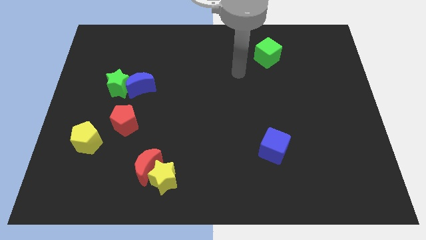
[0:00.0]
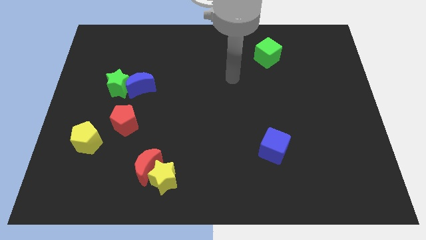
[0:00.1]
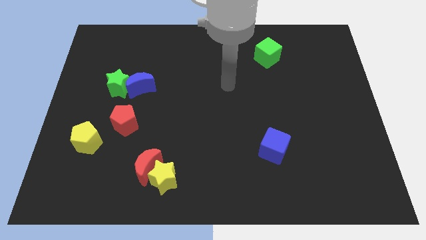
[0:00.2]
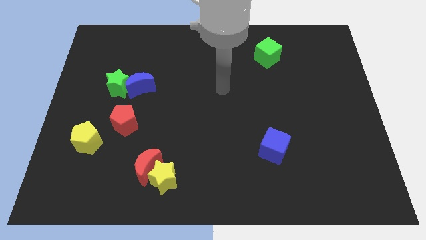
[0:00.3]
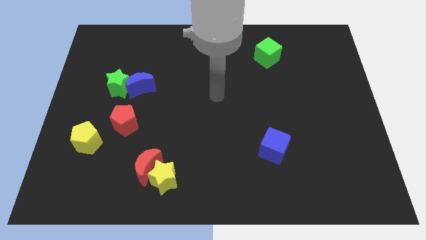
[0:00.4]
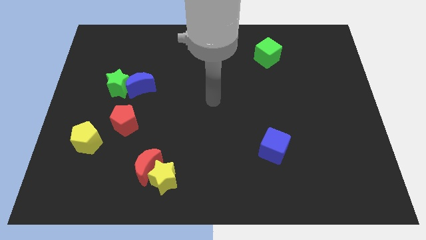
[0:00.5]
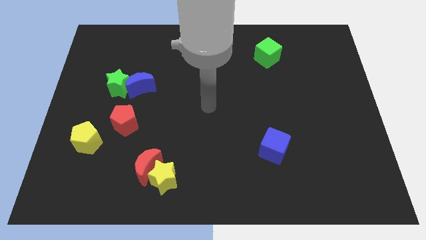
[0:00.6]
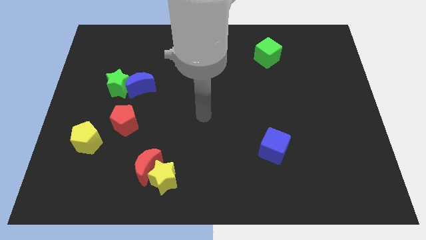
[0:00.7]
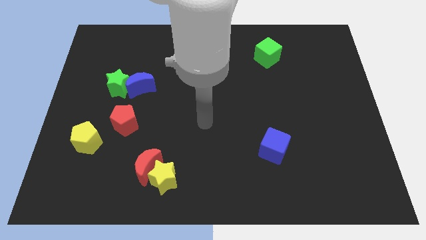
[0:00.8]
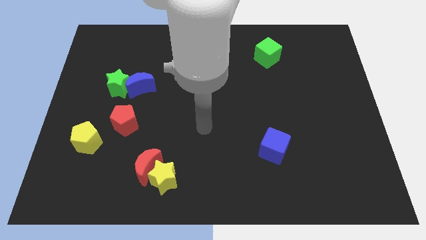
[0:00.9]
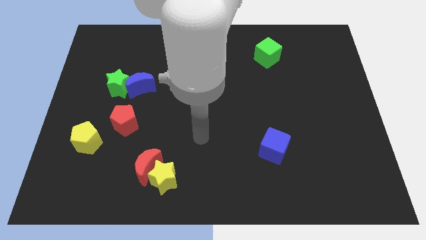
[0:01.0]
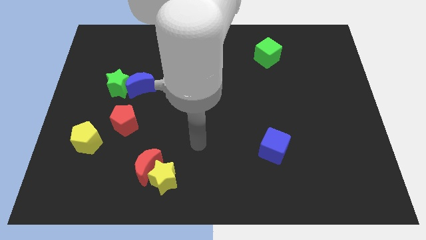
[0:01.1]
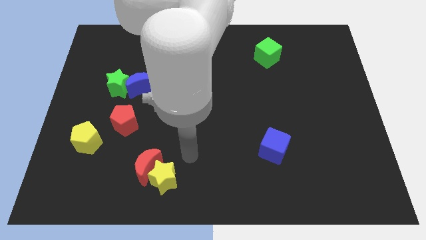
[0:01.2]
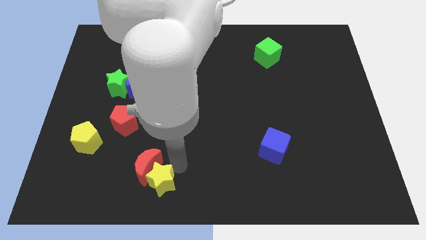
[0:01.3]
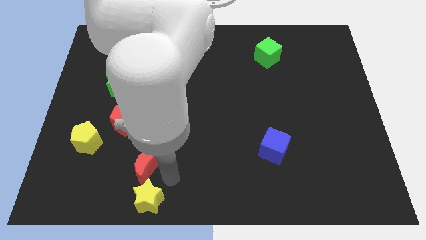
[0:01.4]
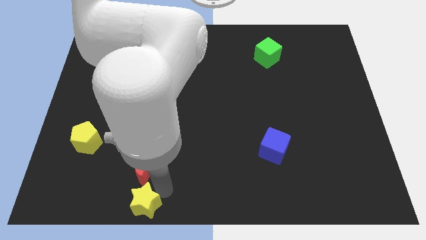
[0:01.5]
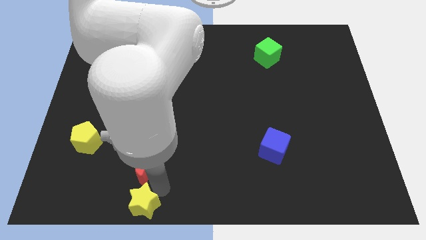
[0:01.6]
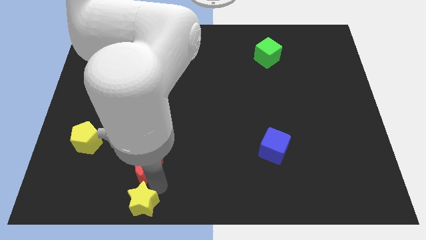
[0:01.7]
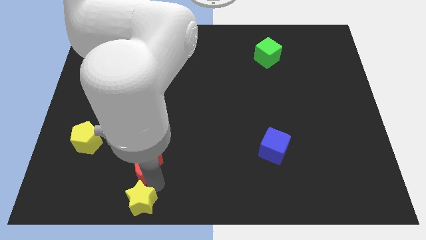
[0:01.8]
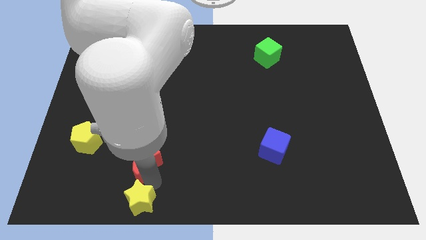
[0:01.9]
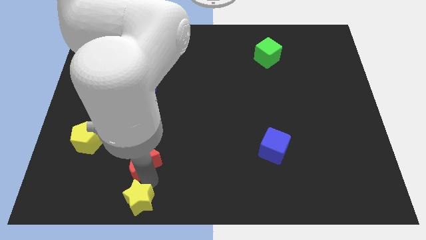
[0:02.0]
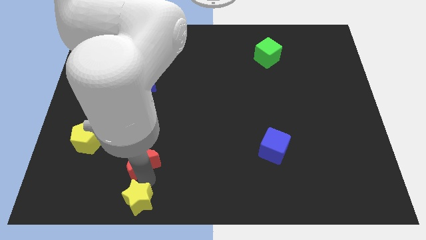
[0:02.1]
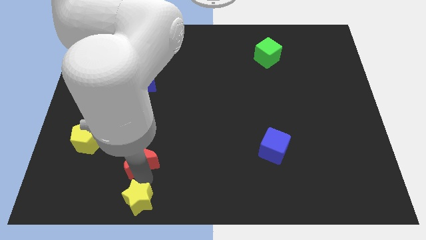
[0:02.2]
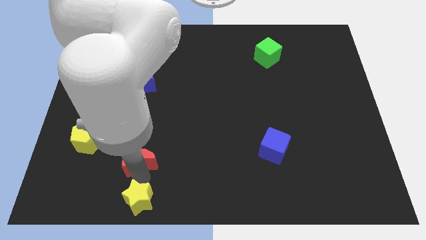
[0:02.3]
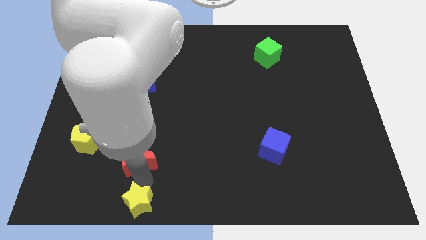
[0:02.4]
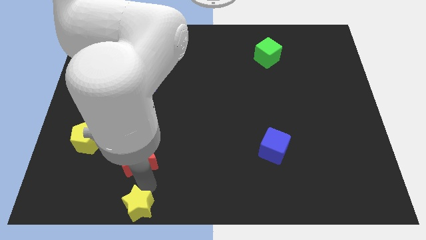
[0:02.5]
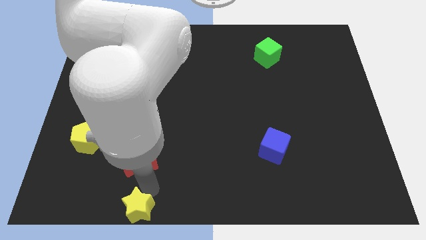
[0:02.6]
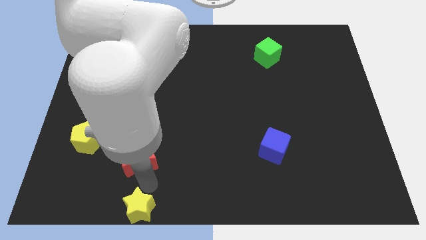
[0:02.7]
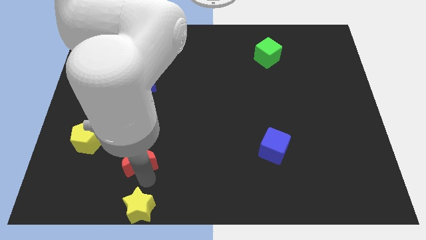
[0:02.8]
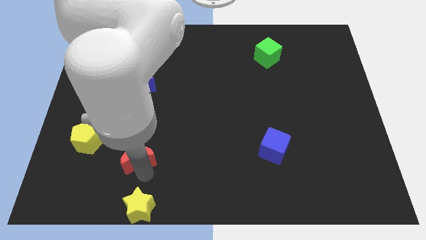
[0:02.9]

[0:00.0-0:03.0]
separate the red moon from the yellow star

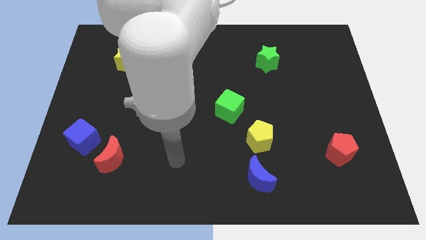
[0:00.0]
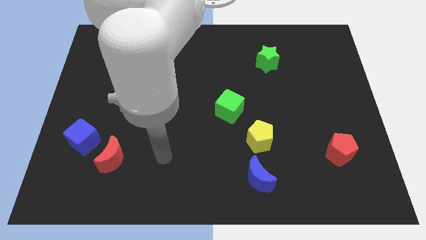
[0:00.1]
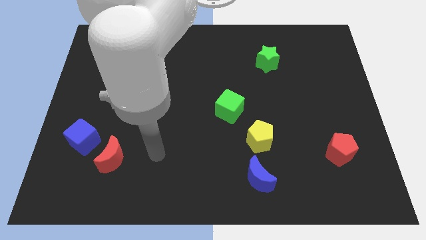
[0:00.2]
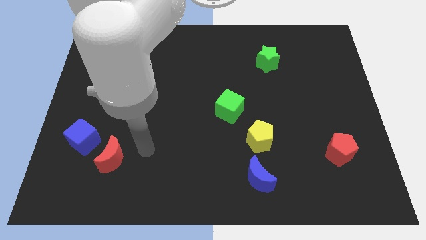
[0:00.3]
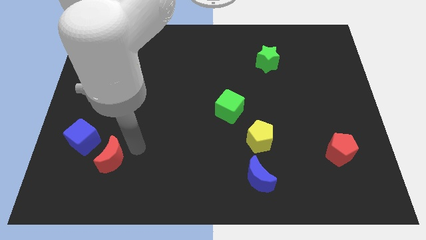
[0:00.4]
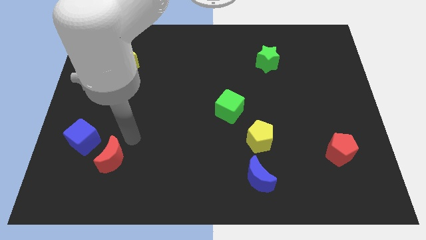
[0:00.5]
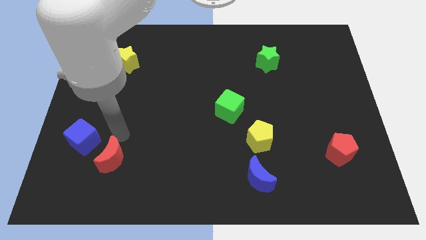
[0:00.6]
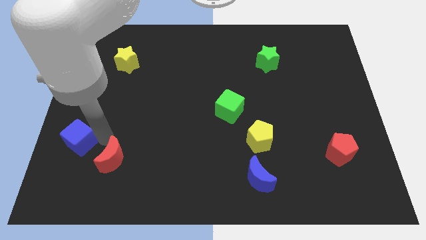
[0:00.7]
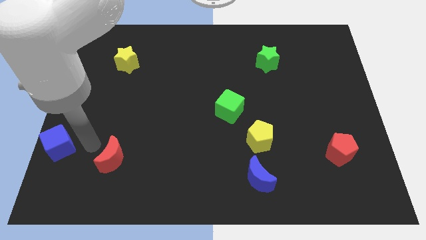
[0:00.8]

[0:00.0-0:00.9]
pull the red moon apart from the blue cube

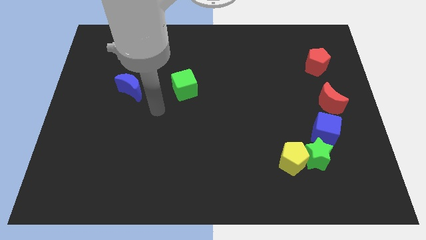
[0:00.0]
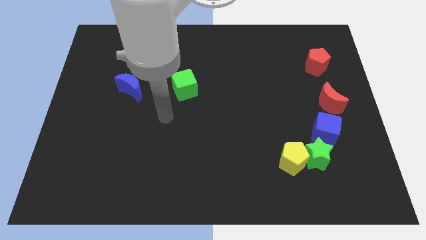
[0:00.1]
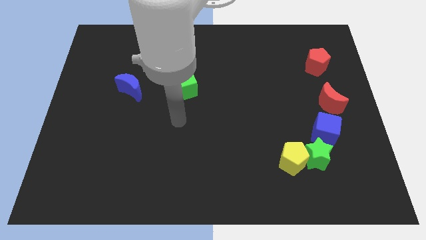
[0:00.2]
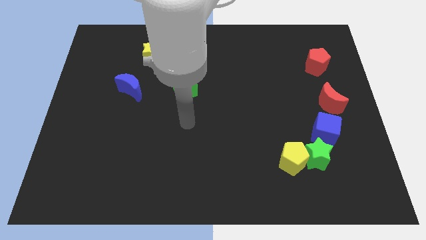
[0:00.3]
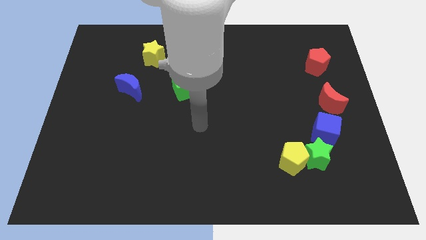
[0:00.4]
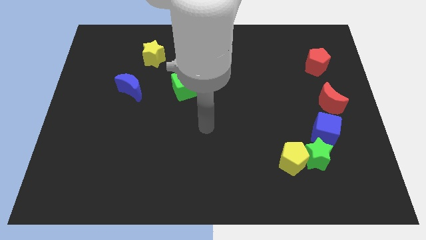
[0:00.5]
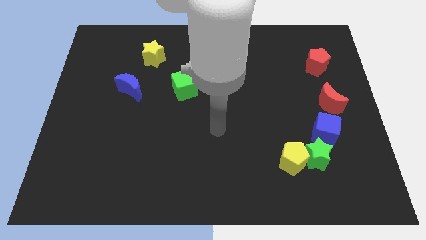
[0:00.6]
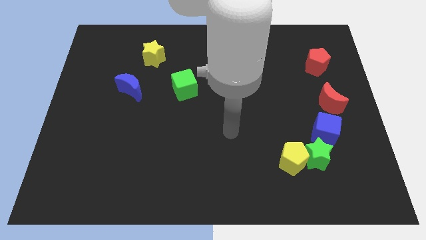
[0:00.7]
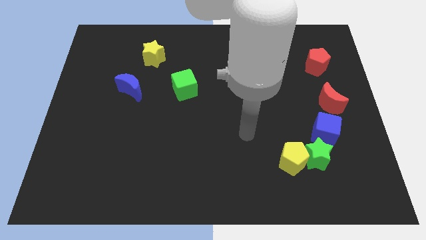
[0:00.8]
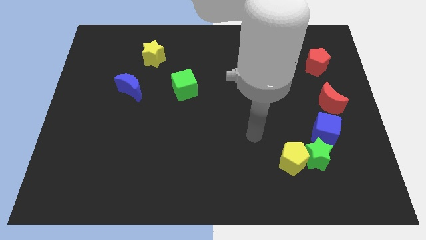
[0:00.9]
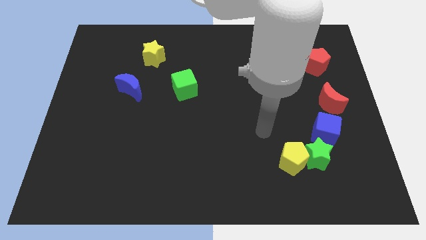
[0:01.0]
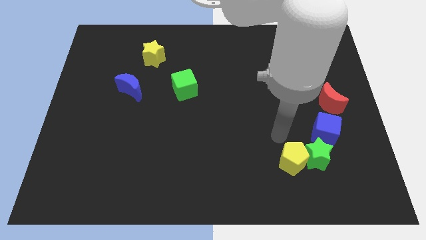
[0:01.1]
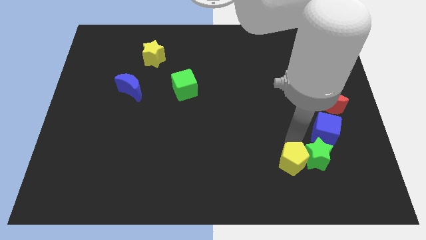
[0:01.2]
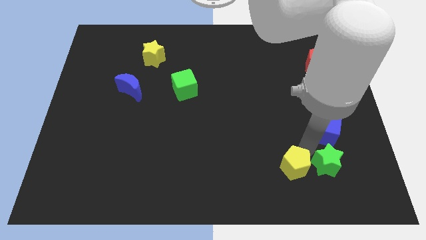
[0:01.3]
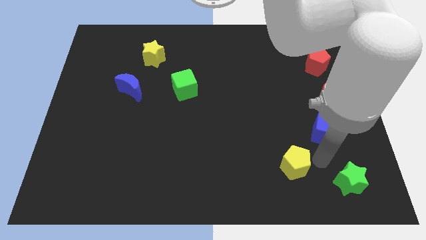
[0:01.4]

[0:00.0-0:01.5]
separate the yellow pentagon from the green star

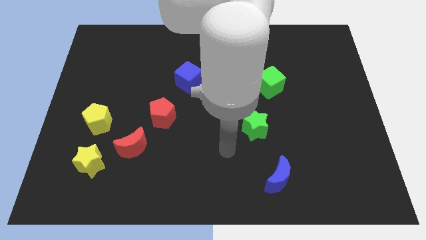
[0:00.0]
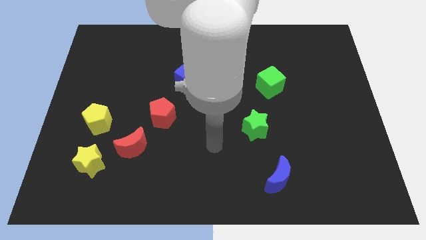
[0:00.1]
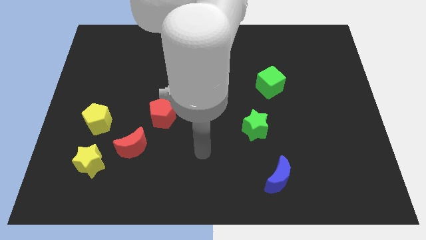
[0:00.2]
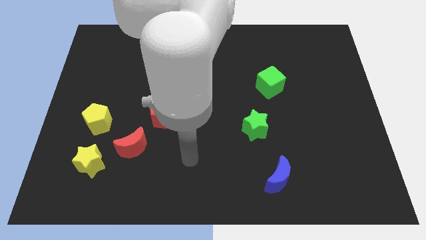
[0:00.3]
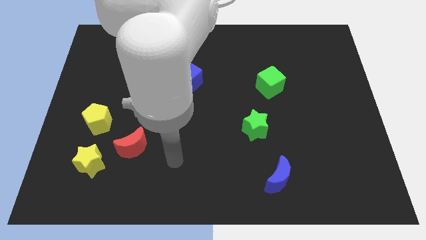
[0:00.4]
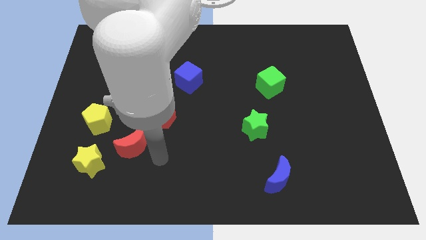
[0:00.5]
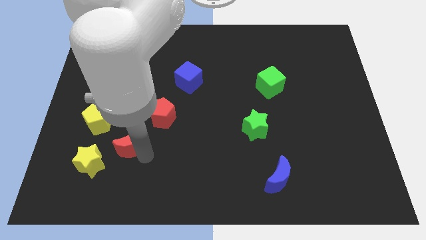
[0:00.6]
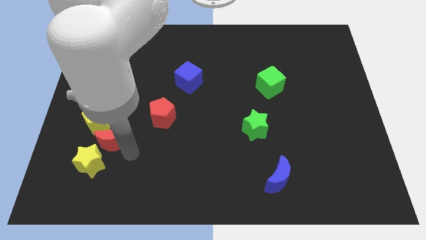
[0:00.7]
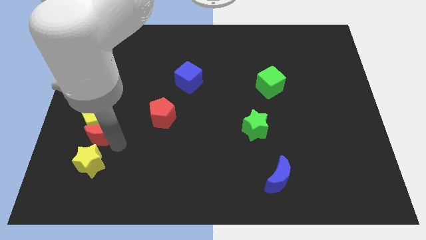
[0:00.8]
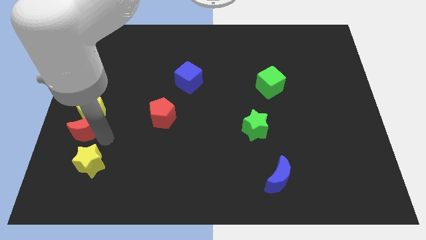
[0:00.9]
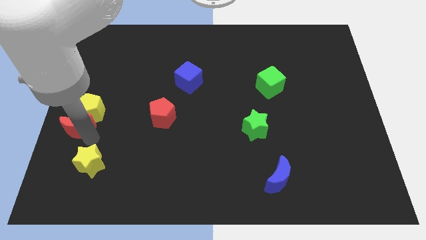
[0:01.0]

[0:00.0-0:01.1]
move the yellow star away from the red moon

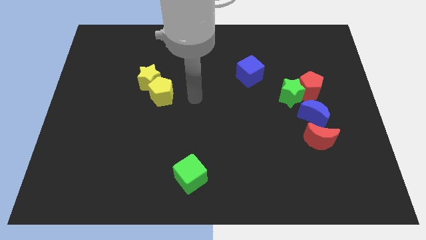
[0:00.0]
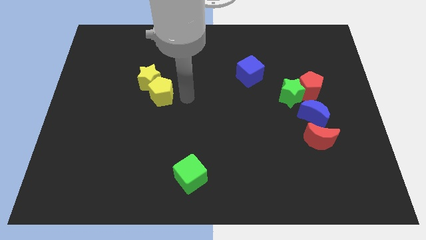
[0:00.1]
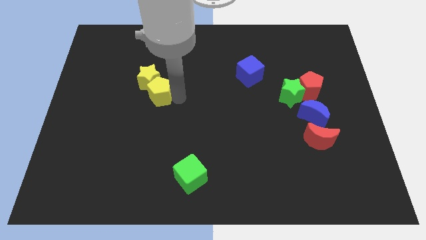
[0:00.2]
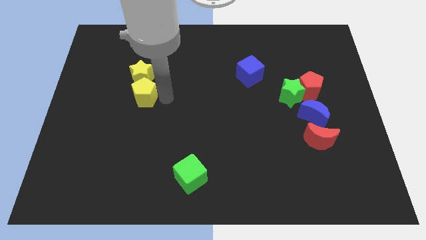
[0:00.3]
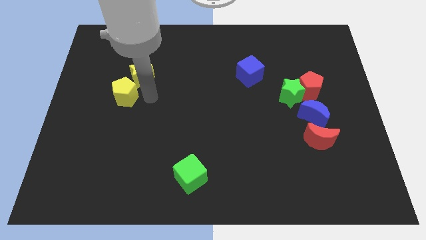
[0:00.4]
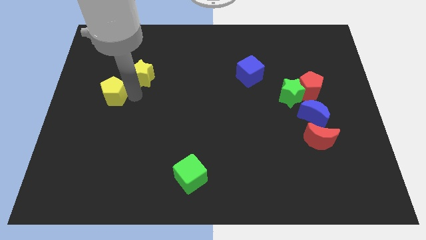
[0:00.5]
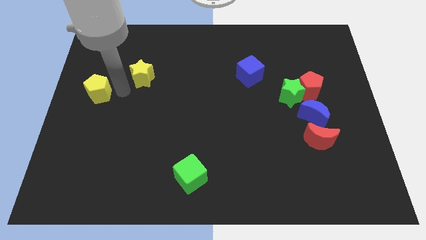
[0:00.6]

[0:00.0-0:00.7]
move the yellow star away from the yellow pentagon

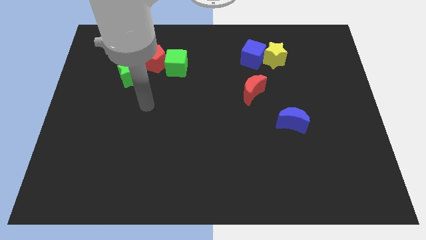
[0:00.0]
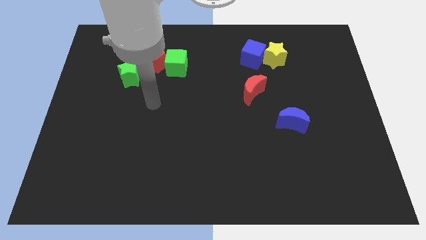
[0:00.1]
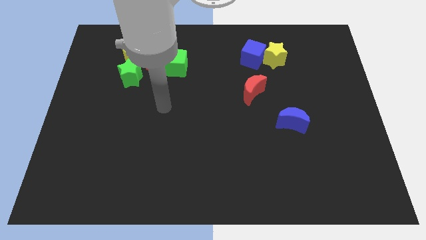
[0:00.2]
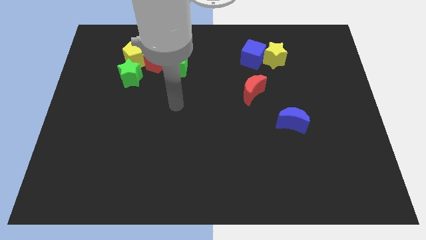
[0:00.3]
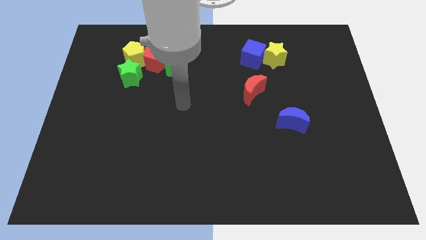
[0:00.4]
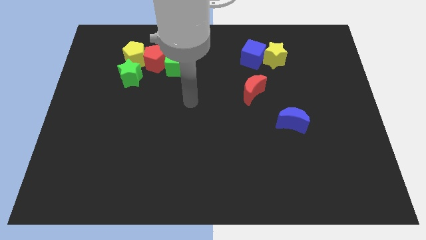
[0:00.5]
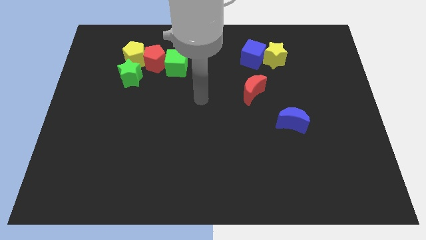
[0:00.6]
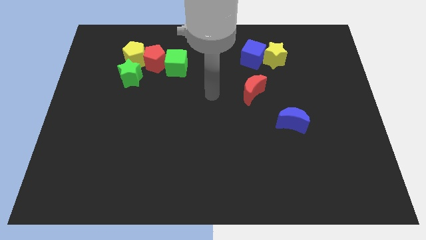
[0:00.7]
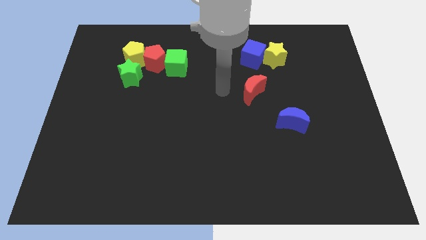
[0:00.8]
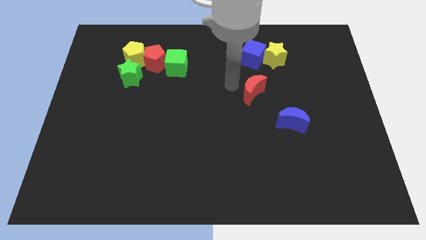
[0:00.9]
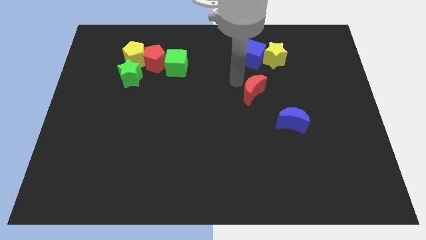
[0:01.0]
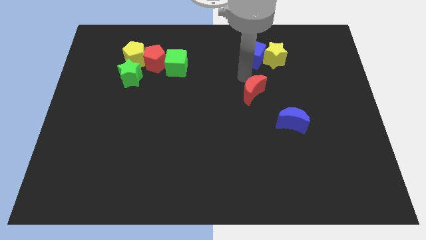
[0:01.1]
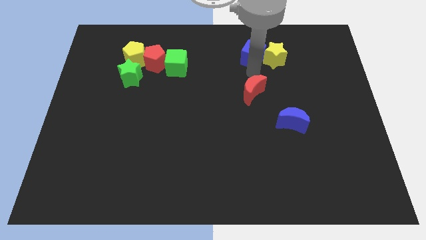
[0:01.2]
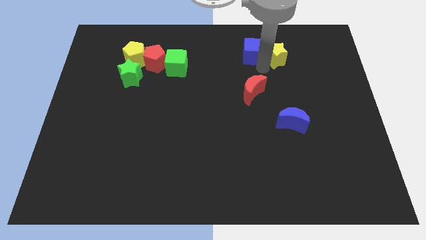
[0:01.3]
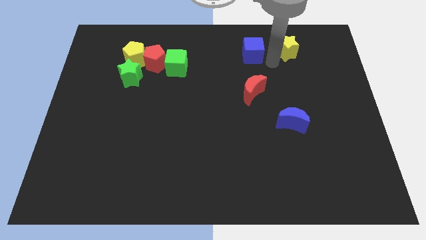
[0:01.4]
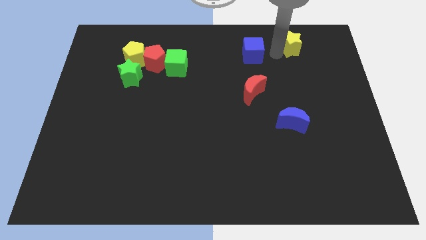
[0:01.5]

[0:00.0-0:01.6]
separate the blue cube from the yellow star

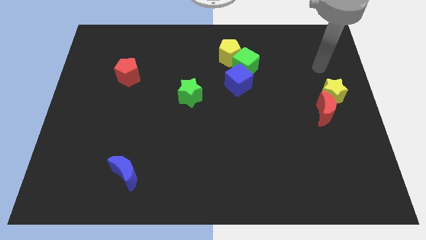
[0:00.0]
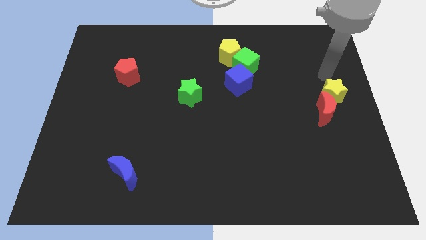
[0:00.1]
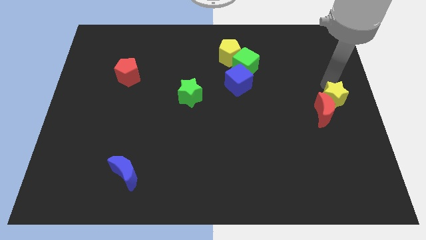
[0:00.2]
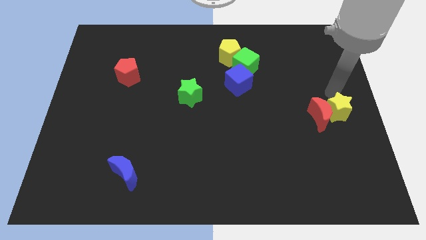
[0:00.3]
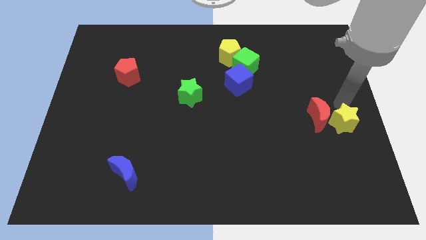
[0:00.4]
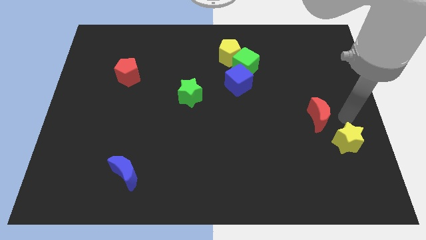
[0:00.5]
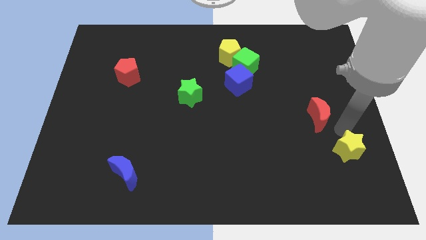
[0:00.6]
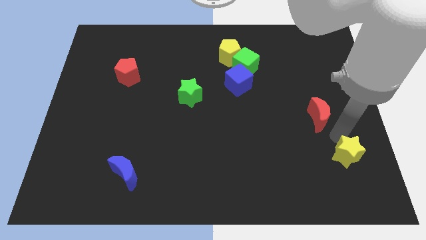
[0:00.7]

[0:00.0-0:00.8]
move the red moon away from the yellow star
